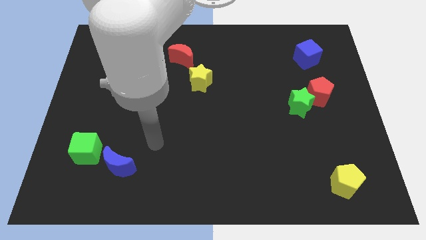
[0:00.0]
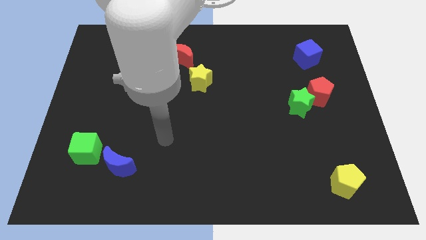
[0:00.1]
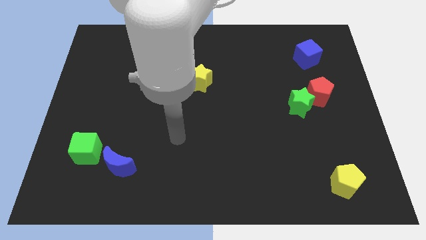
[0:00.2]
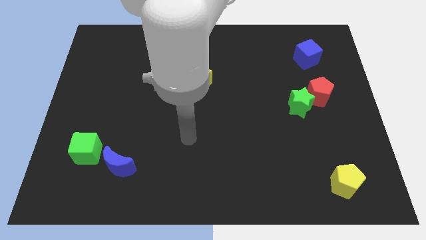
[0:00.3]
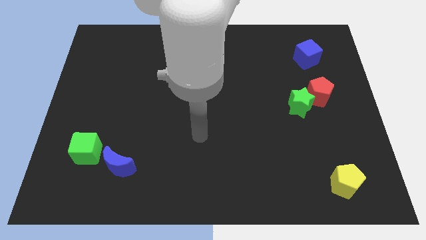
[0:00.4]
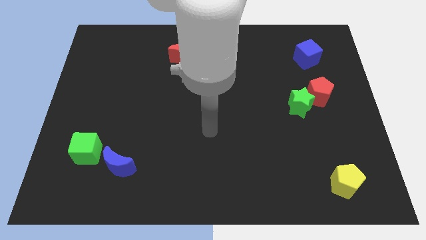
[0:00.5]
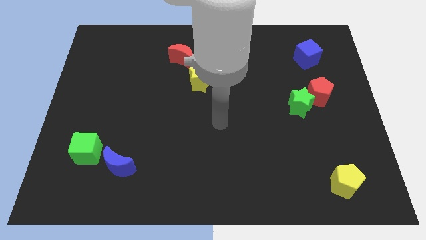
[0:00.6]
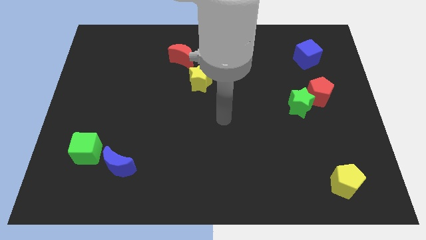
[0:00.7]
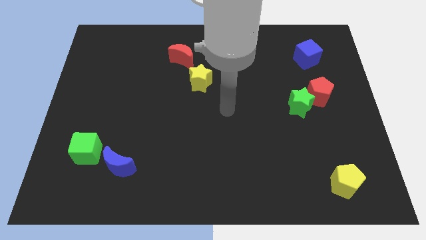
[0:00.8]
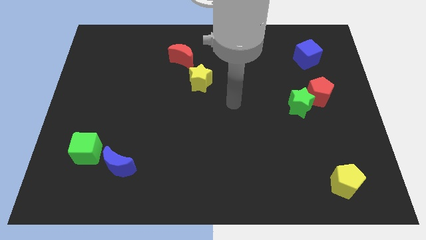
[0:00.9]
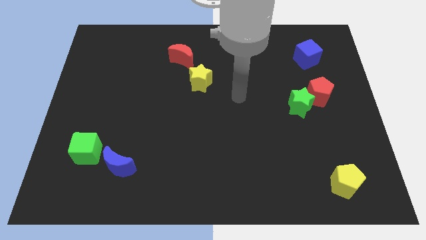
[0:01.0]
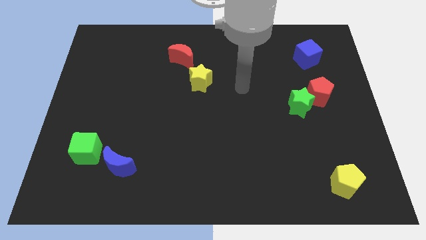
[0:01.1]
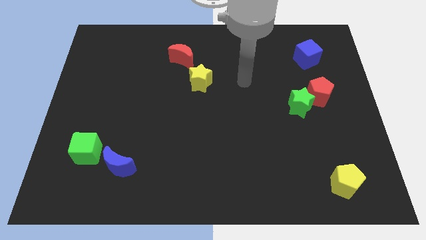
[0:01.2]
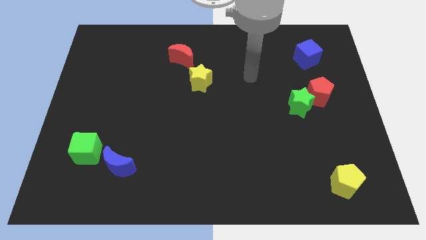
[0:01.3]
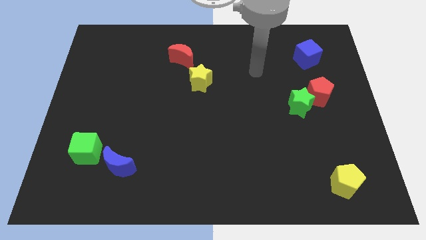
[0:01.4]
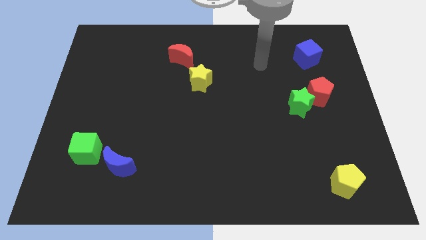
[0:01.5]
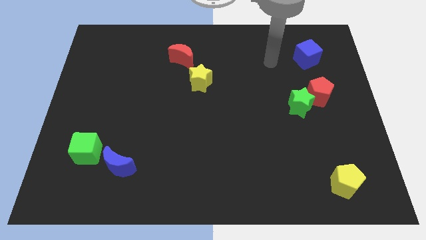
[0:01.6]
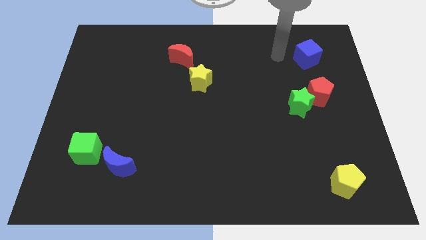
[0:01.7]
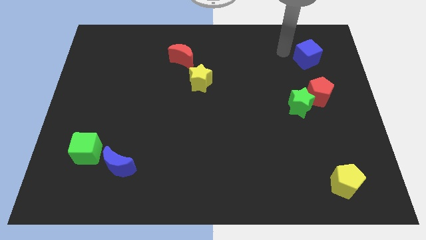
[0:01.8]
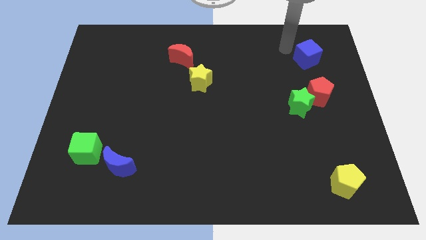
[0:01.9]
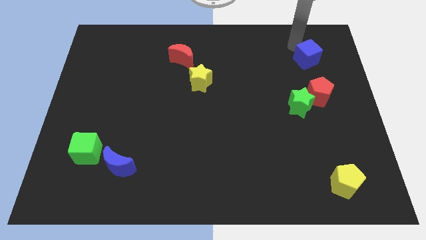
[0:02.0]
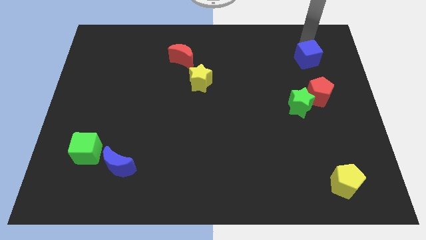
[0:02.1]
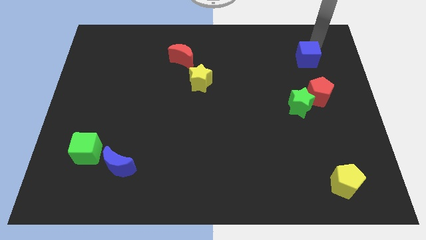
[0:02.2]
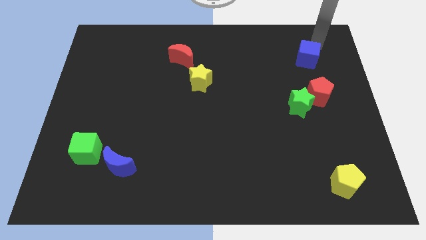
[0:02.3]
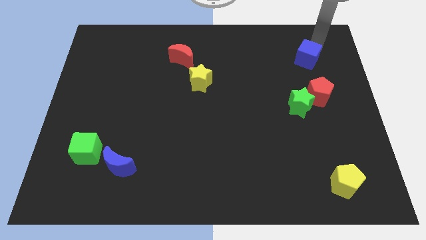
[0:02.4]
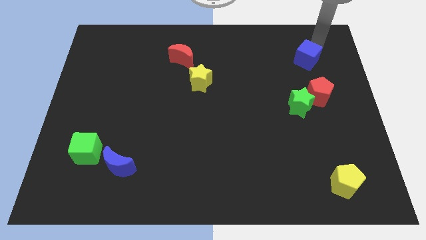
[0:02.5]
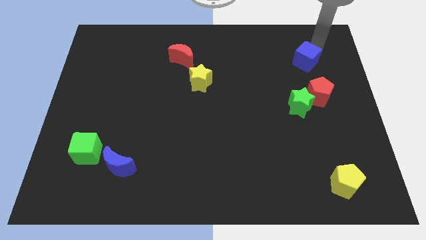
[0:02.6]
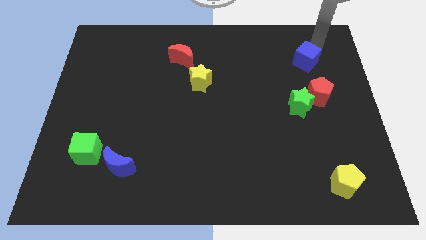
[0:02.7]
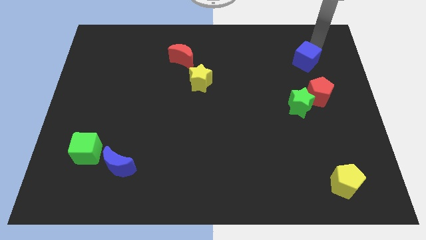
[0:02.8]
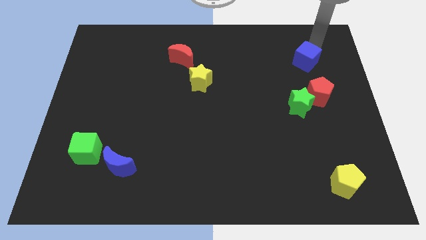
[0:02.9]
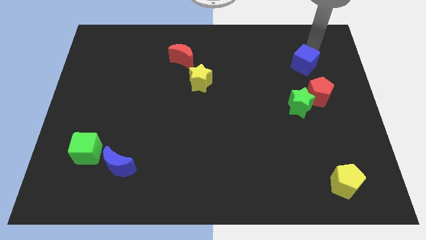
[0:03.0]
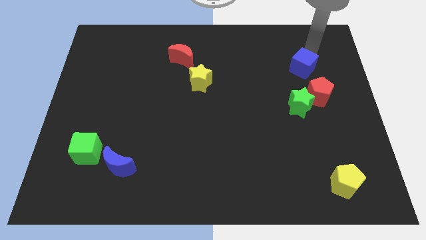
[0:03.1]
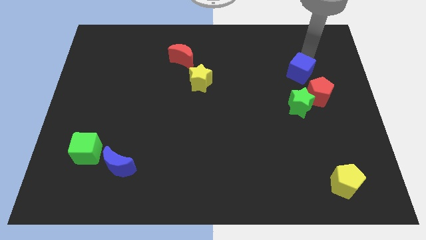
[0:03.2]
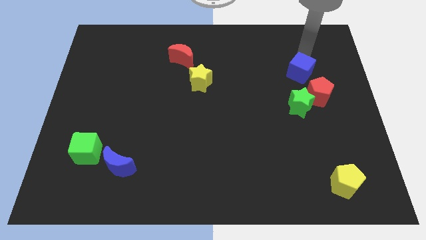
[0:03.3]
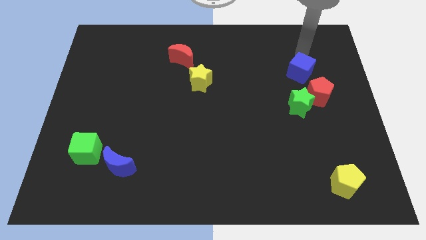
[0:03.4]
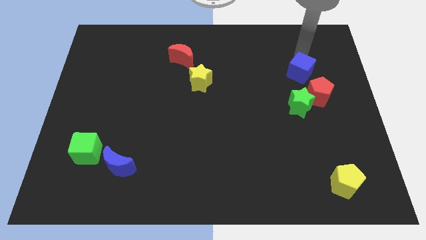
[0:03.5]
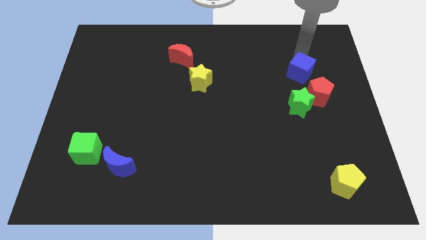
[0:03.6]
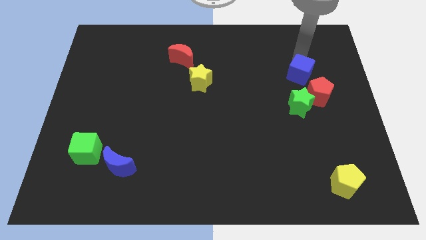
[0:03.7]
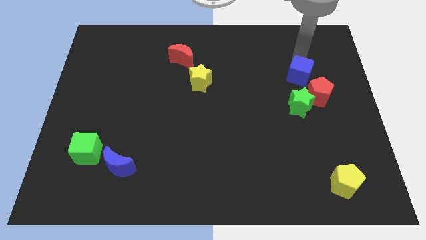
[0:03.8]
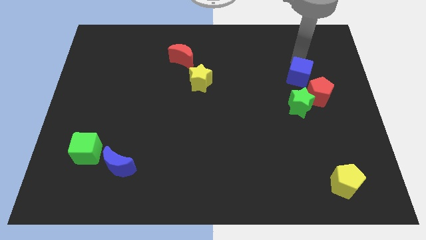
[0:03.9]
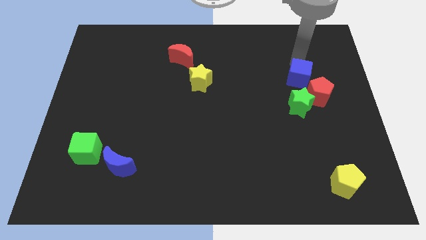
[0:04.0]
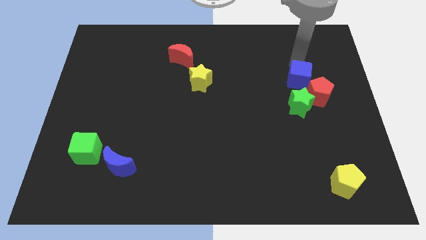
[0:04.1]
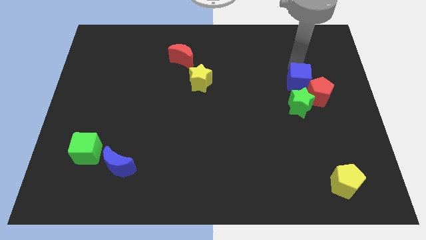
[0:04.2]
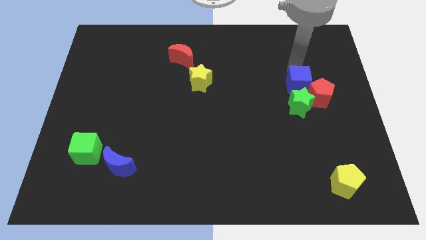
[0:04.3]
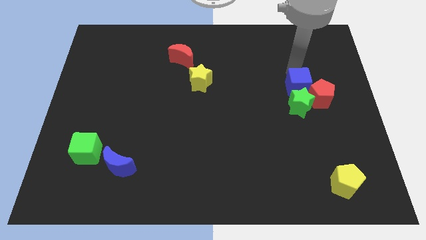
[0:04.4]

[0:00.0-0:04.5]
move the blue cube to the green star

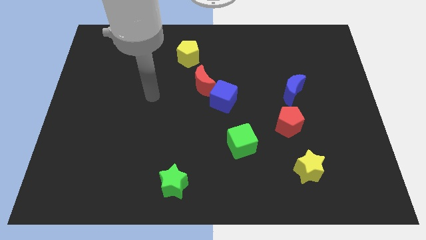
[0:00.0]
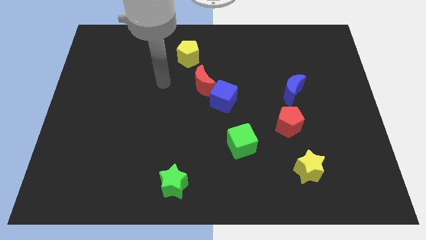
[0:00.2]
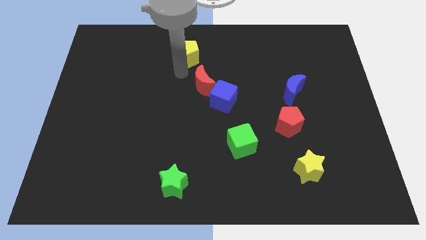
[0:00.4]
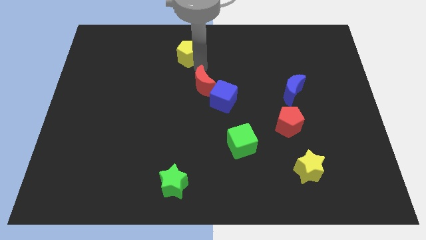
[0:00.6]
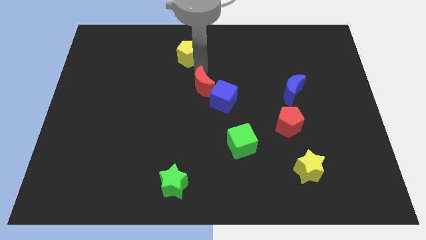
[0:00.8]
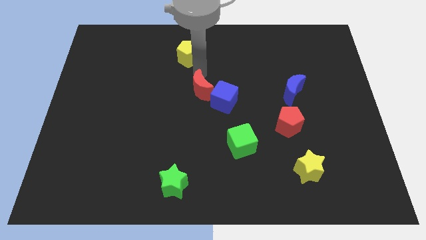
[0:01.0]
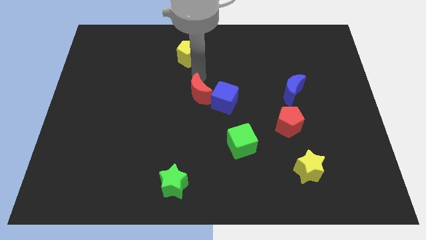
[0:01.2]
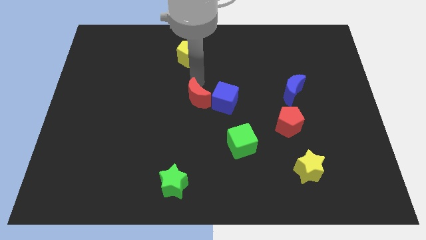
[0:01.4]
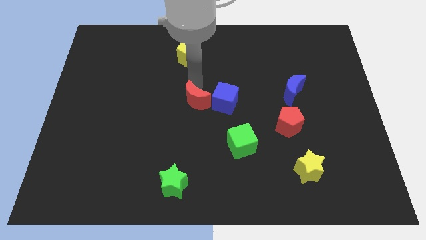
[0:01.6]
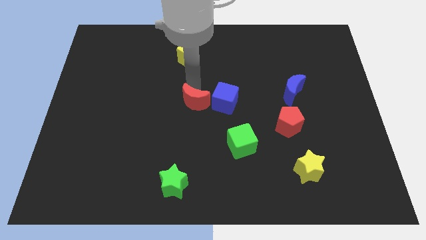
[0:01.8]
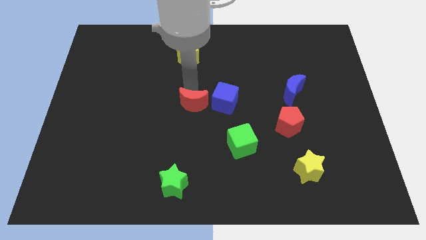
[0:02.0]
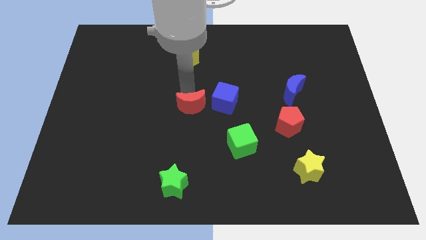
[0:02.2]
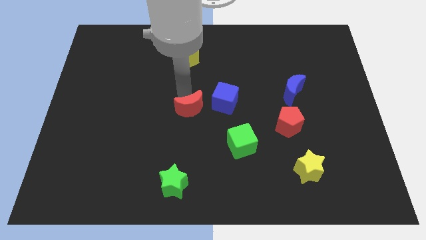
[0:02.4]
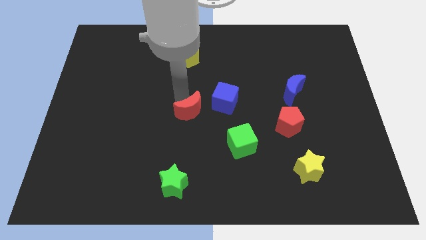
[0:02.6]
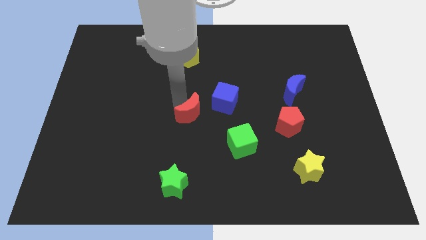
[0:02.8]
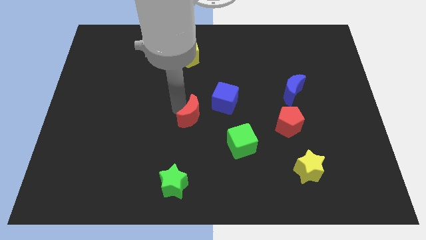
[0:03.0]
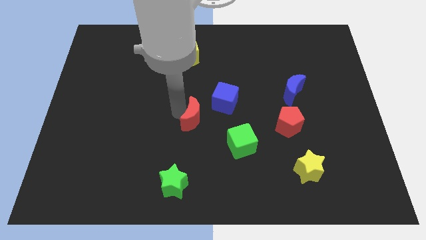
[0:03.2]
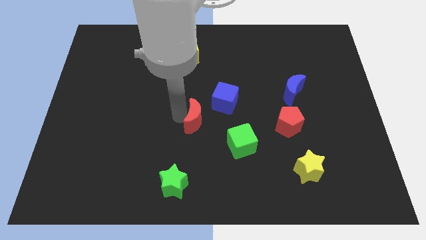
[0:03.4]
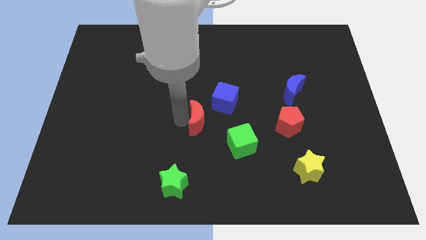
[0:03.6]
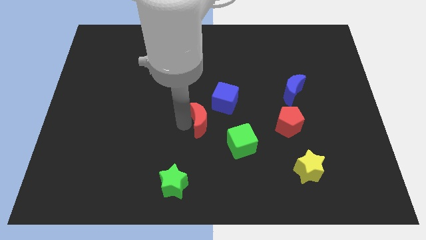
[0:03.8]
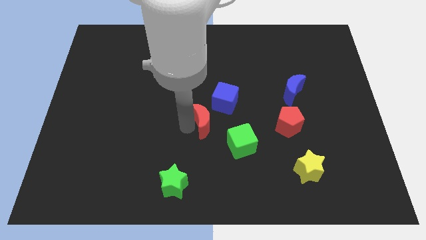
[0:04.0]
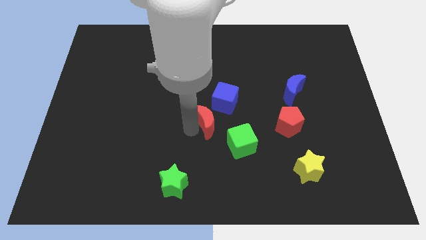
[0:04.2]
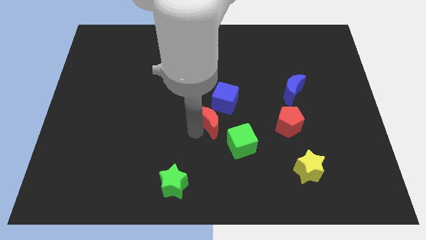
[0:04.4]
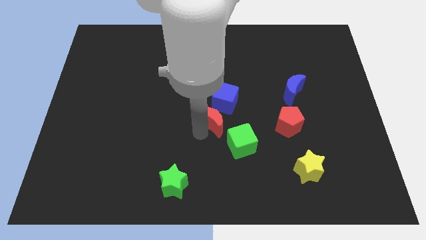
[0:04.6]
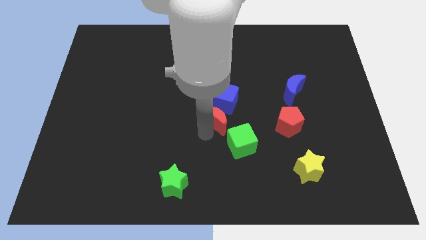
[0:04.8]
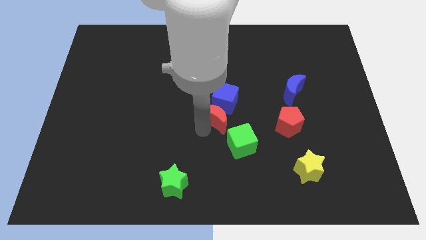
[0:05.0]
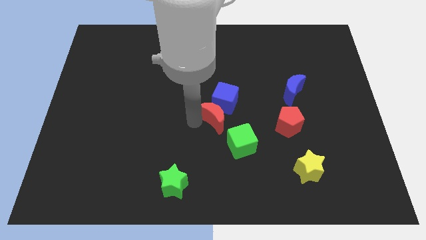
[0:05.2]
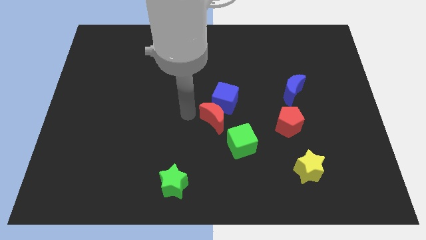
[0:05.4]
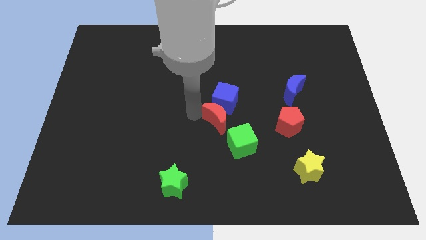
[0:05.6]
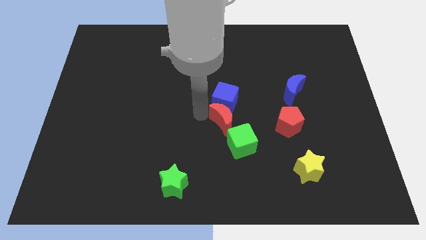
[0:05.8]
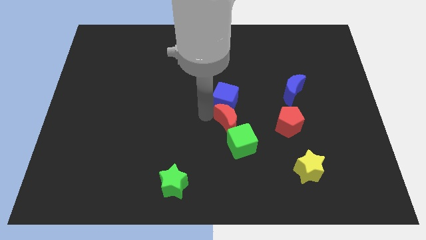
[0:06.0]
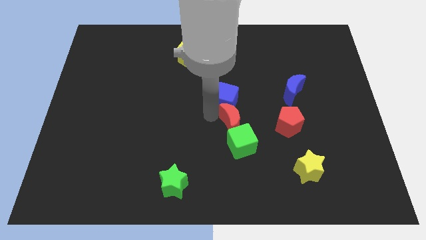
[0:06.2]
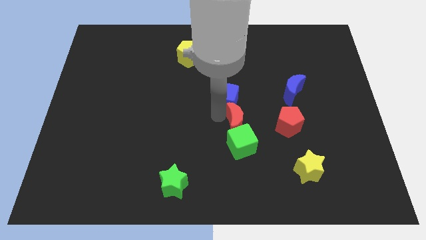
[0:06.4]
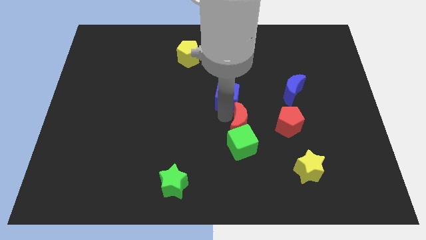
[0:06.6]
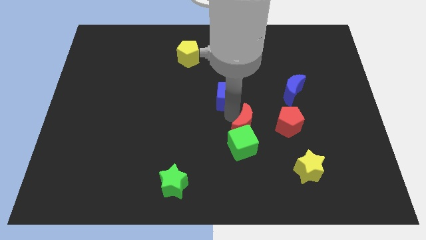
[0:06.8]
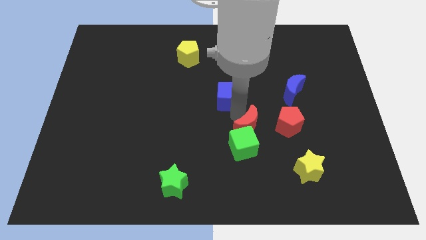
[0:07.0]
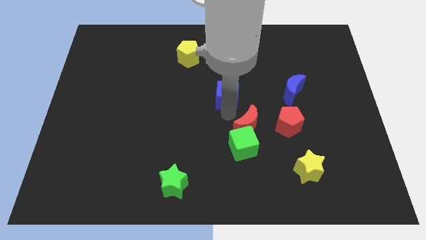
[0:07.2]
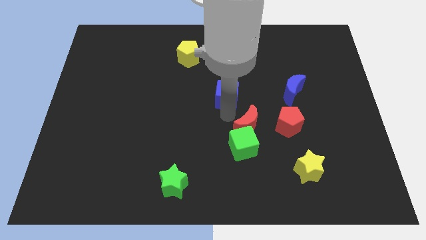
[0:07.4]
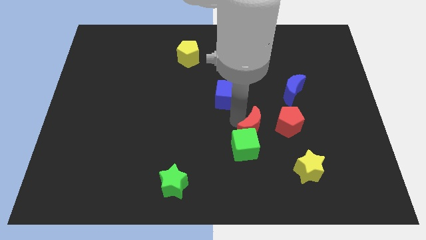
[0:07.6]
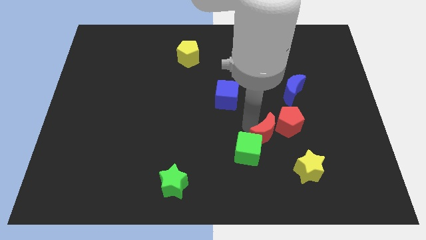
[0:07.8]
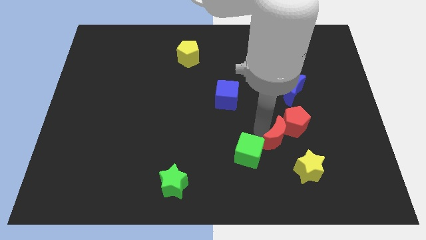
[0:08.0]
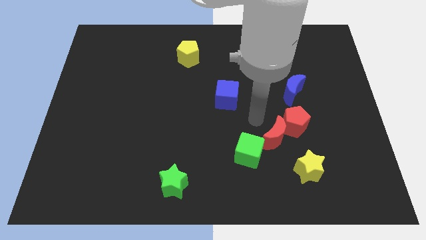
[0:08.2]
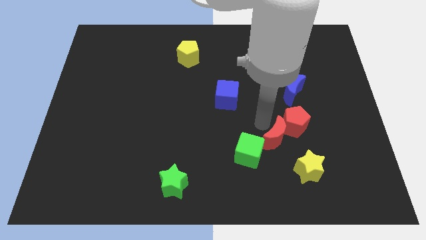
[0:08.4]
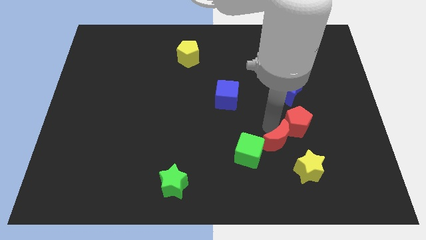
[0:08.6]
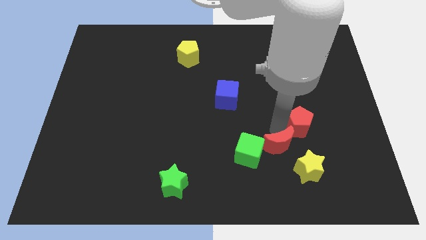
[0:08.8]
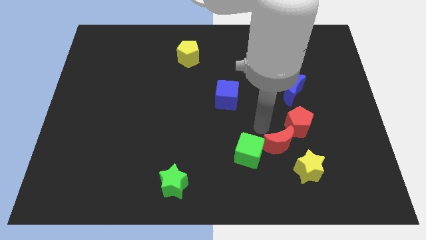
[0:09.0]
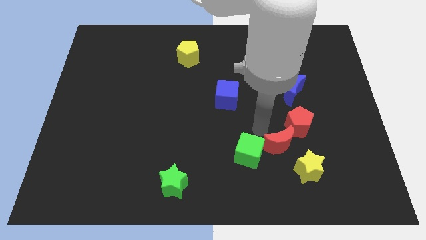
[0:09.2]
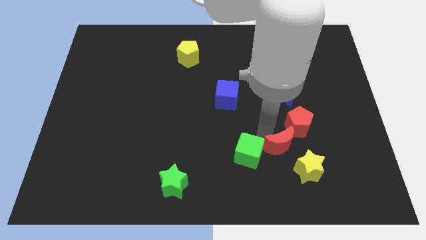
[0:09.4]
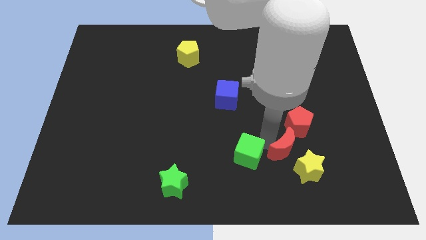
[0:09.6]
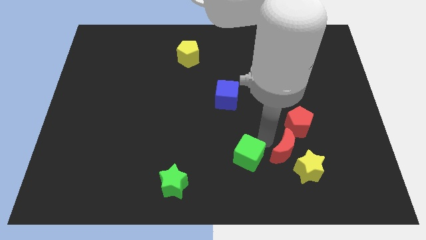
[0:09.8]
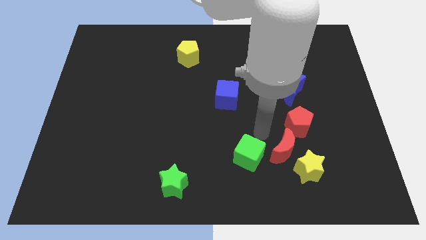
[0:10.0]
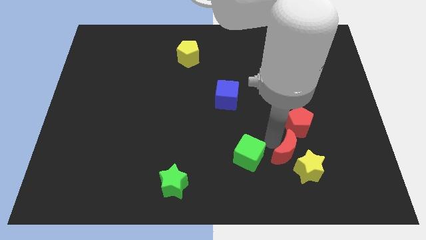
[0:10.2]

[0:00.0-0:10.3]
put the red moon next to the yellow star
